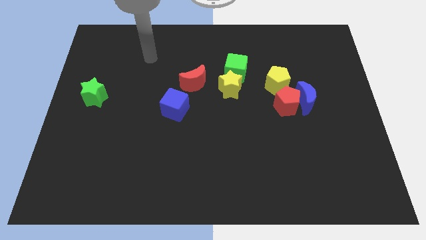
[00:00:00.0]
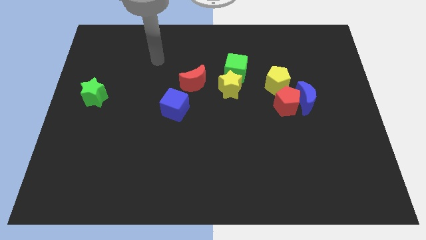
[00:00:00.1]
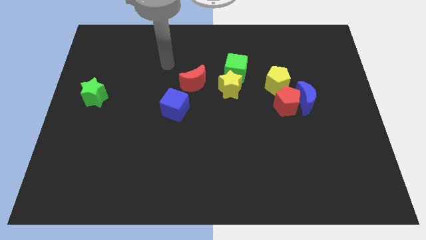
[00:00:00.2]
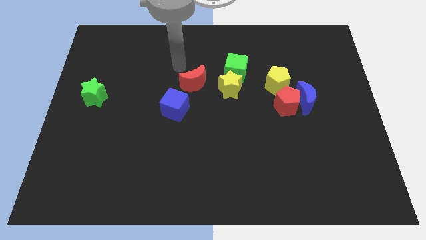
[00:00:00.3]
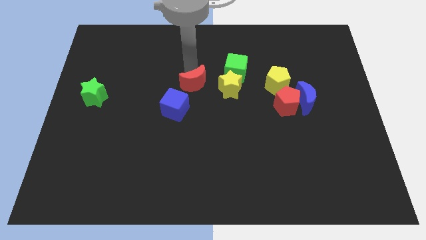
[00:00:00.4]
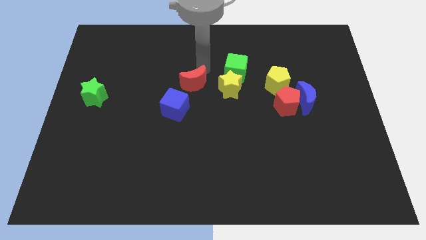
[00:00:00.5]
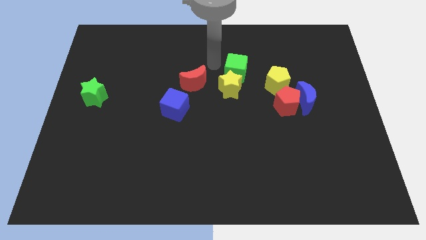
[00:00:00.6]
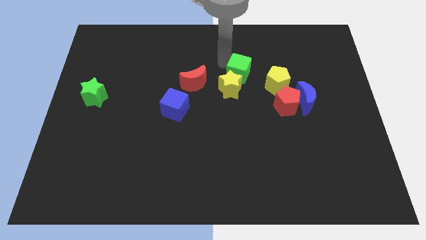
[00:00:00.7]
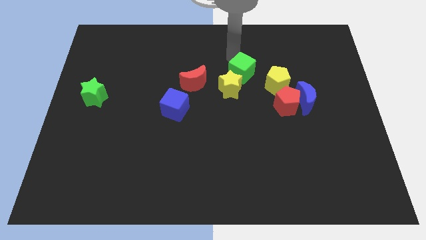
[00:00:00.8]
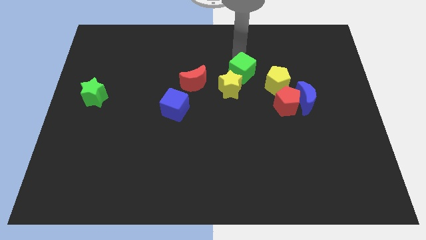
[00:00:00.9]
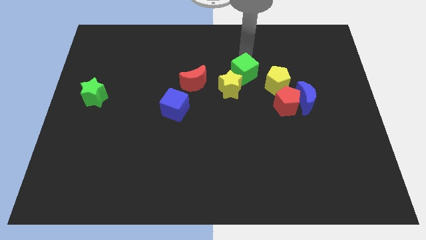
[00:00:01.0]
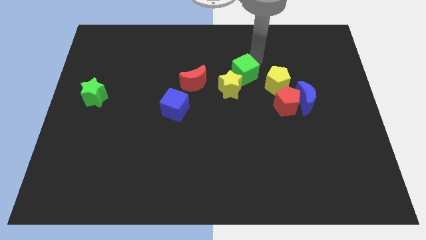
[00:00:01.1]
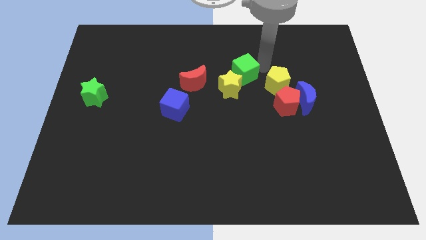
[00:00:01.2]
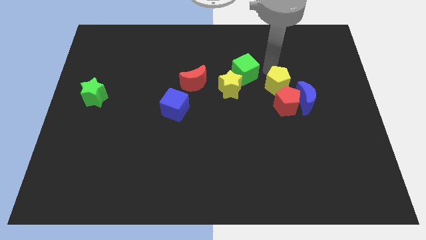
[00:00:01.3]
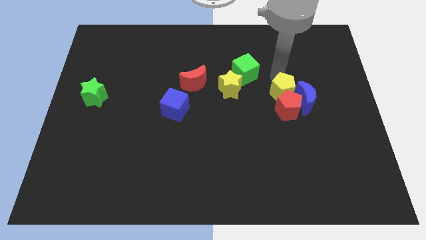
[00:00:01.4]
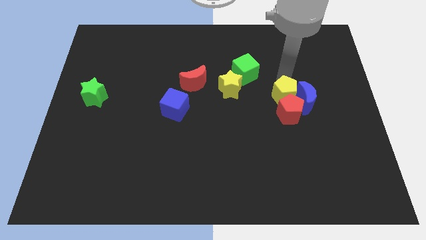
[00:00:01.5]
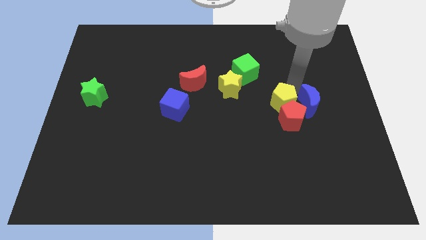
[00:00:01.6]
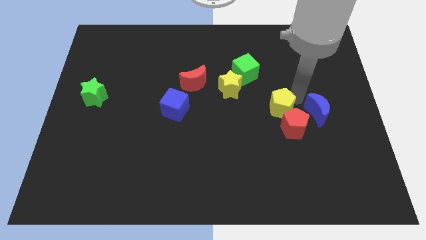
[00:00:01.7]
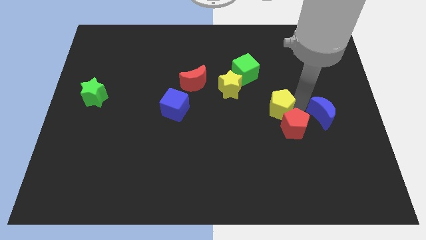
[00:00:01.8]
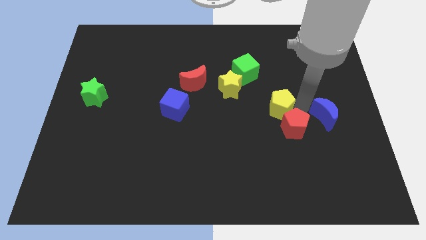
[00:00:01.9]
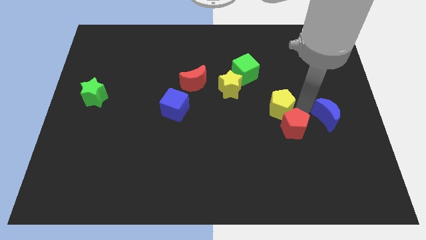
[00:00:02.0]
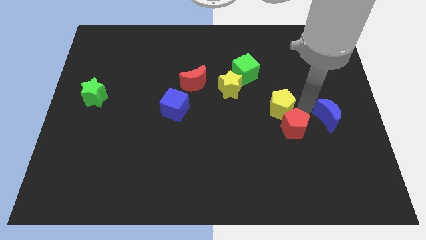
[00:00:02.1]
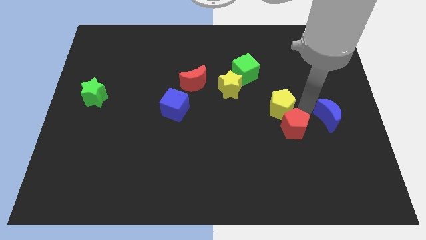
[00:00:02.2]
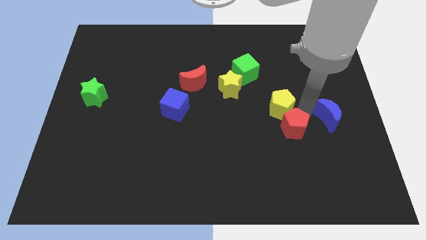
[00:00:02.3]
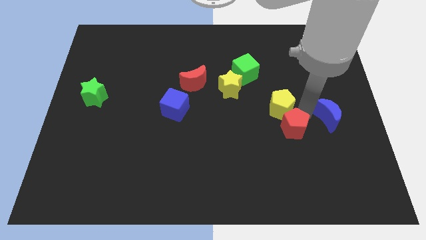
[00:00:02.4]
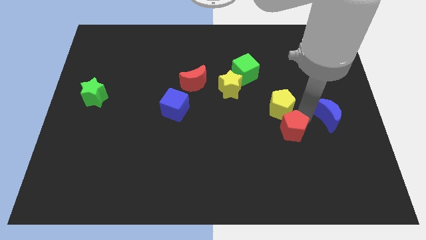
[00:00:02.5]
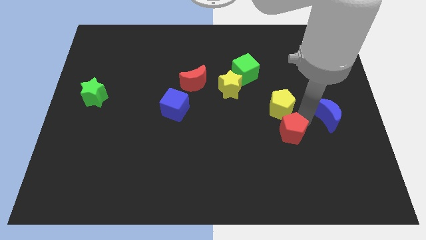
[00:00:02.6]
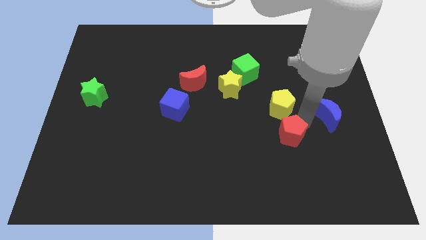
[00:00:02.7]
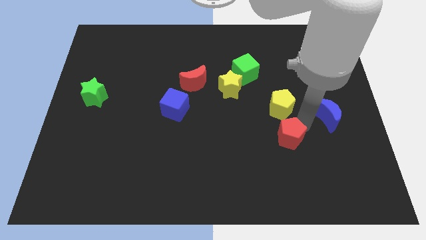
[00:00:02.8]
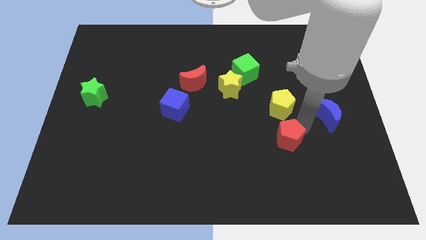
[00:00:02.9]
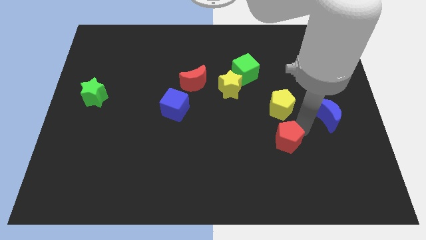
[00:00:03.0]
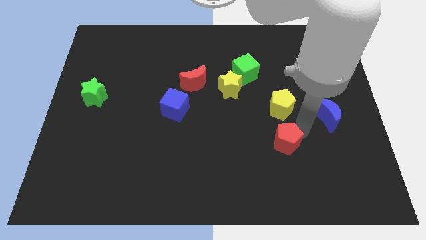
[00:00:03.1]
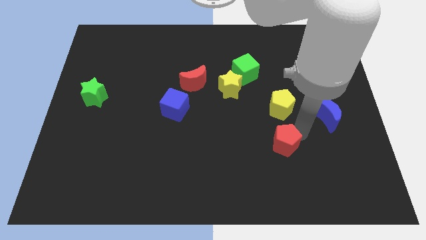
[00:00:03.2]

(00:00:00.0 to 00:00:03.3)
pull the red pentagon apart from the blue moon and yellow pentagon

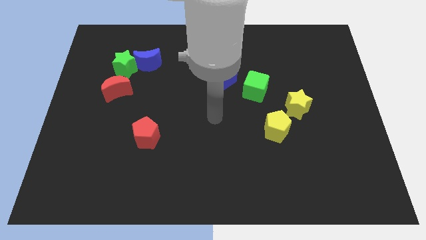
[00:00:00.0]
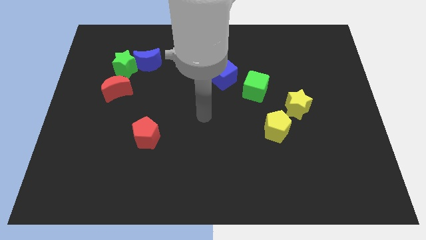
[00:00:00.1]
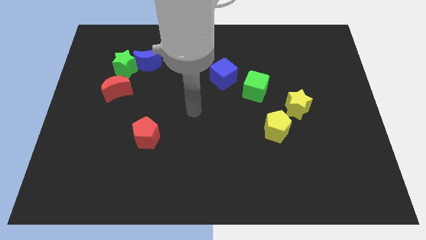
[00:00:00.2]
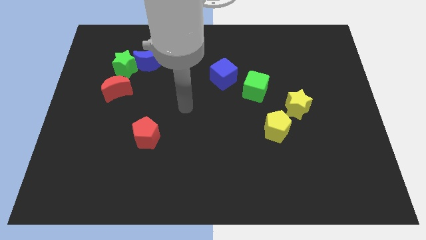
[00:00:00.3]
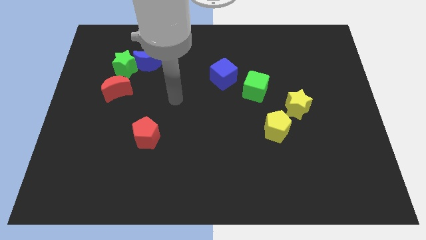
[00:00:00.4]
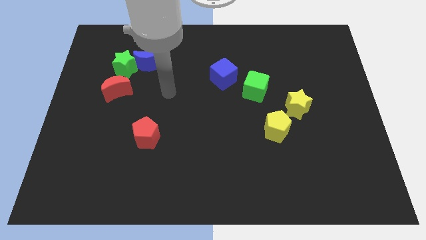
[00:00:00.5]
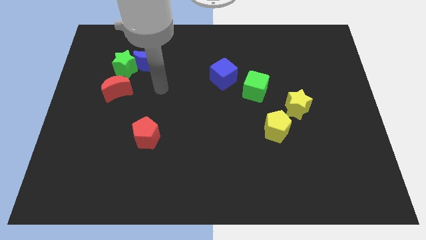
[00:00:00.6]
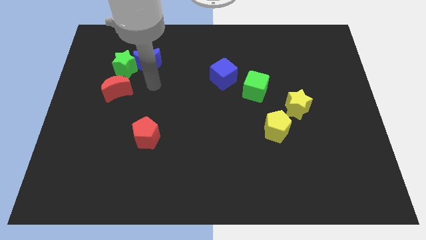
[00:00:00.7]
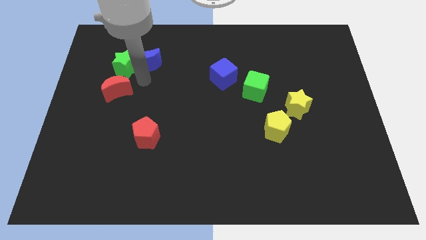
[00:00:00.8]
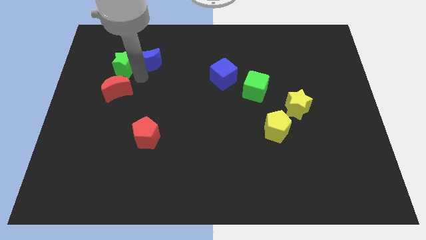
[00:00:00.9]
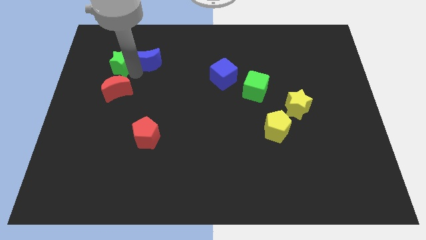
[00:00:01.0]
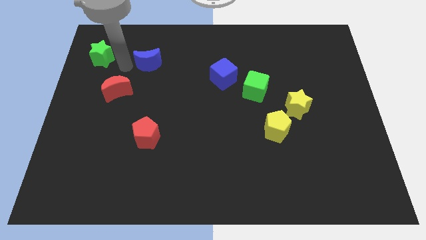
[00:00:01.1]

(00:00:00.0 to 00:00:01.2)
move the blue moon away from the green star

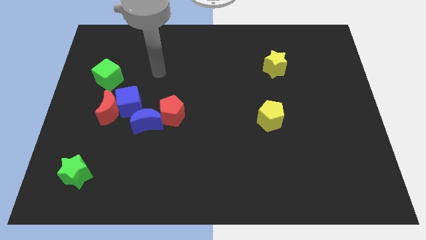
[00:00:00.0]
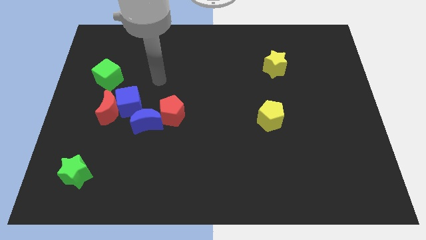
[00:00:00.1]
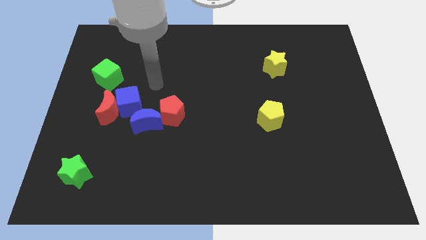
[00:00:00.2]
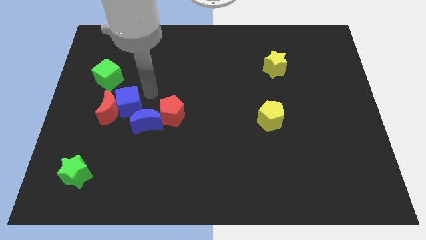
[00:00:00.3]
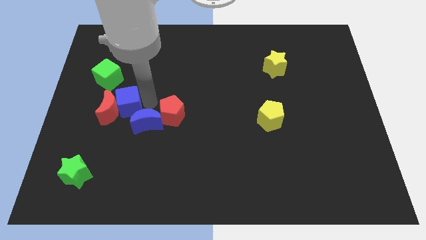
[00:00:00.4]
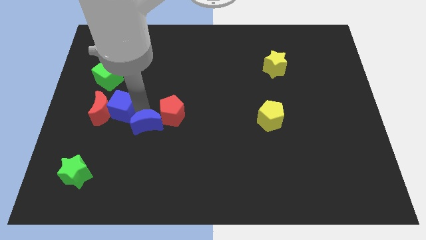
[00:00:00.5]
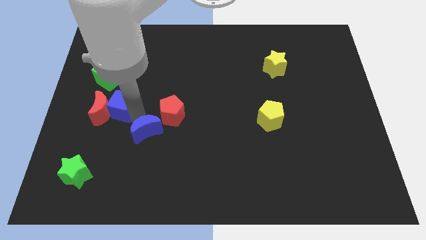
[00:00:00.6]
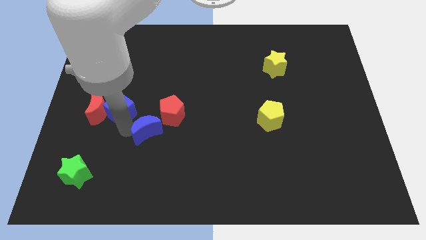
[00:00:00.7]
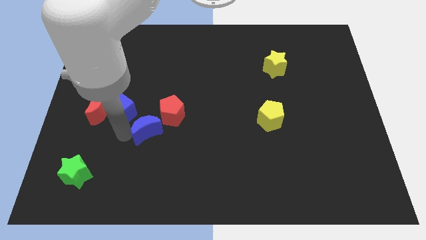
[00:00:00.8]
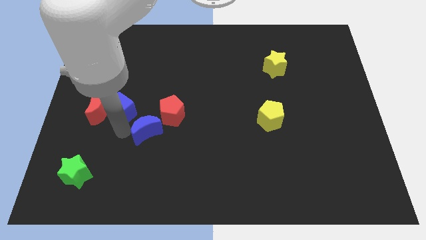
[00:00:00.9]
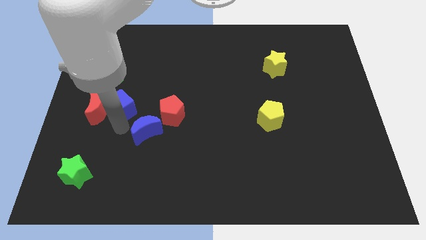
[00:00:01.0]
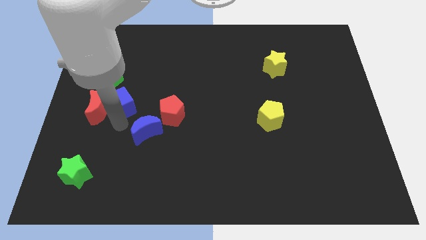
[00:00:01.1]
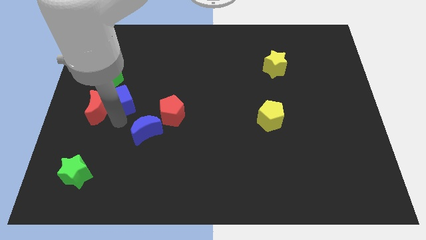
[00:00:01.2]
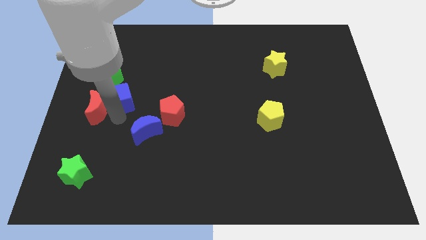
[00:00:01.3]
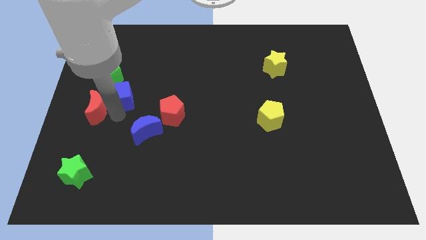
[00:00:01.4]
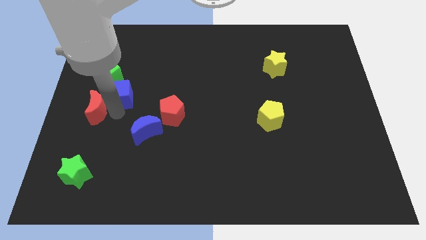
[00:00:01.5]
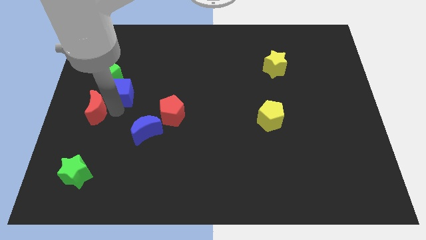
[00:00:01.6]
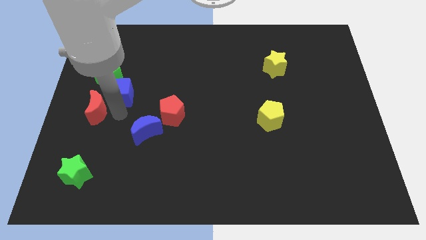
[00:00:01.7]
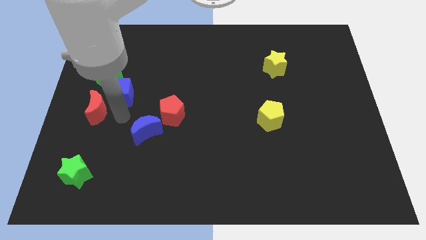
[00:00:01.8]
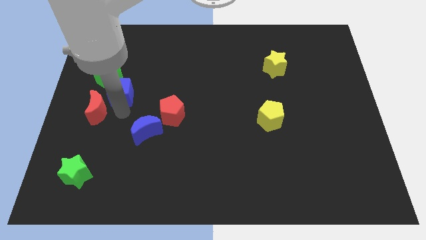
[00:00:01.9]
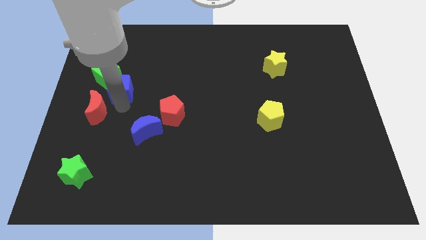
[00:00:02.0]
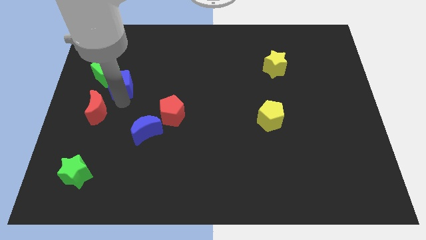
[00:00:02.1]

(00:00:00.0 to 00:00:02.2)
pull the blue cube apart from the red moon and blue moon

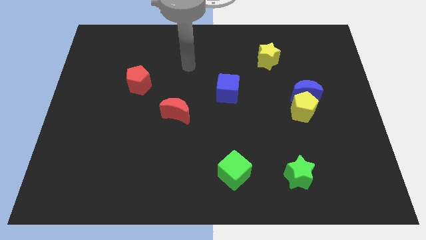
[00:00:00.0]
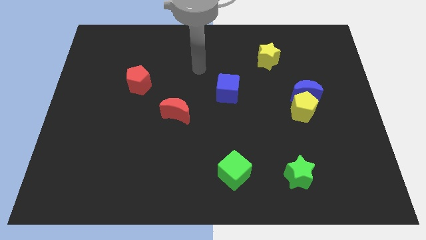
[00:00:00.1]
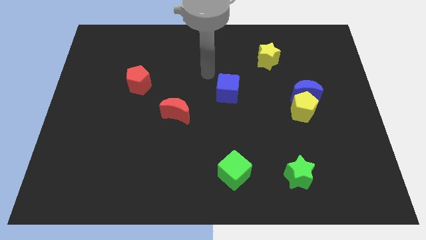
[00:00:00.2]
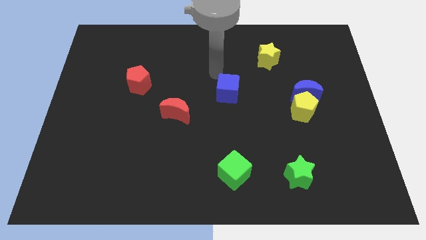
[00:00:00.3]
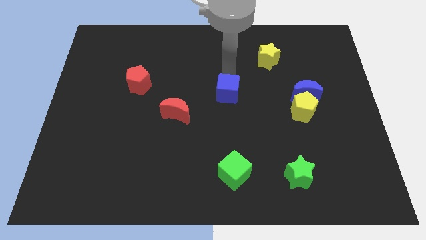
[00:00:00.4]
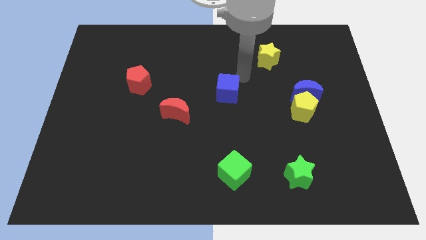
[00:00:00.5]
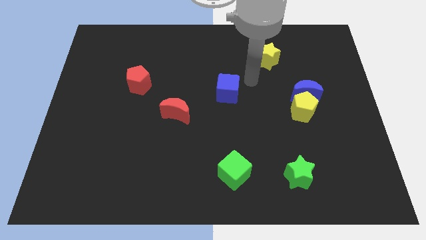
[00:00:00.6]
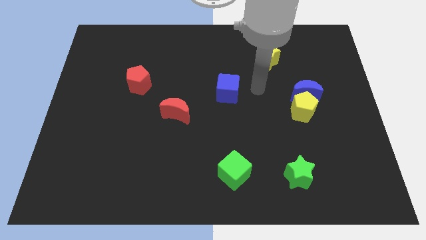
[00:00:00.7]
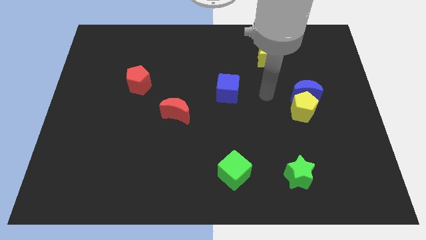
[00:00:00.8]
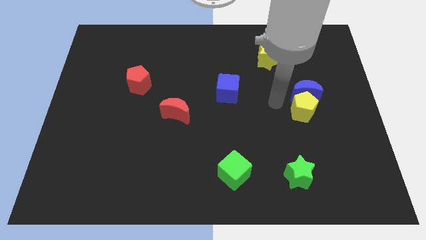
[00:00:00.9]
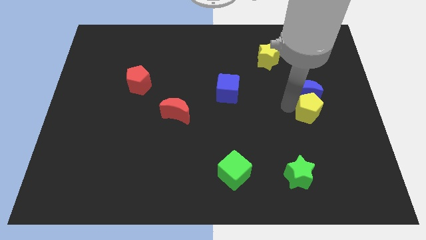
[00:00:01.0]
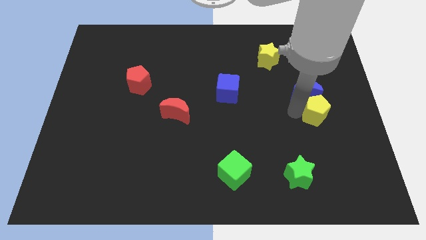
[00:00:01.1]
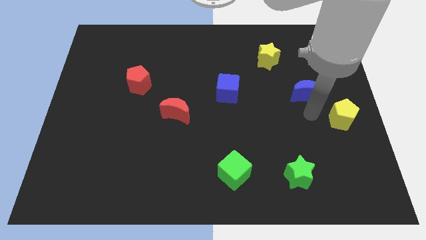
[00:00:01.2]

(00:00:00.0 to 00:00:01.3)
separate the blue moon from the yellow pentagon

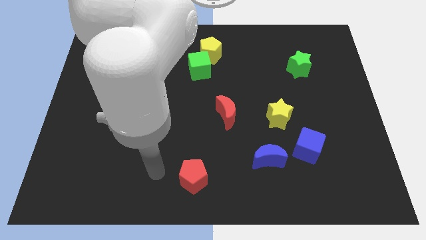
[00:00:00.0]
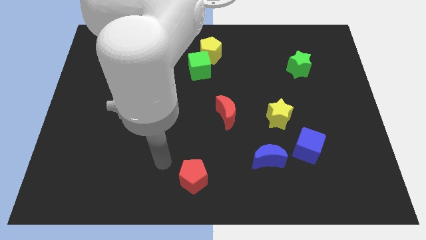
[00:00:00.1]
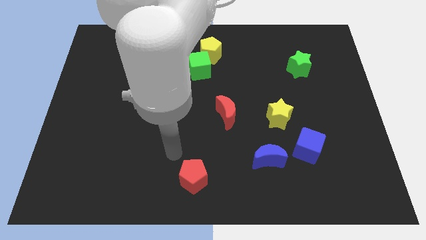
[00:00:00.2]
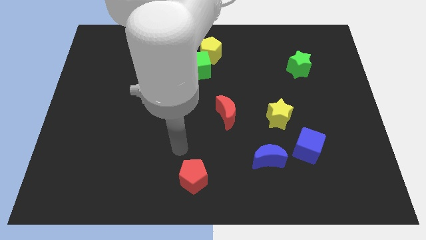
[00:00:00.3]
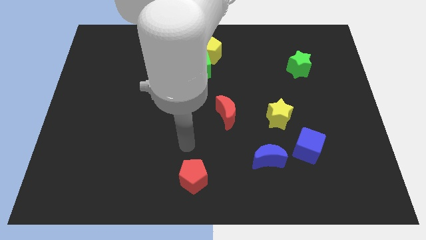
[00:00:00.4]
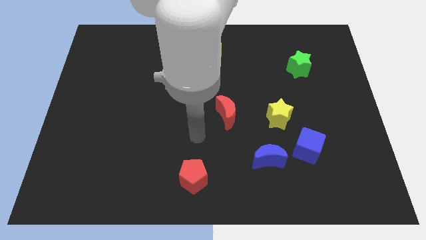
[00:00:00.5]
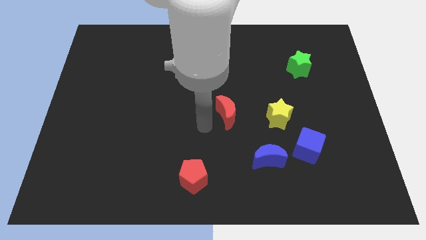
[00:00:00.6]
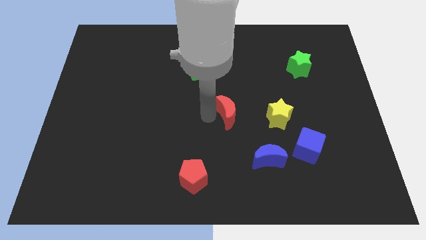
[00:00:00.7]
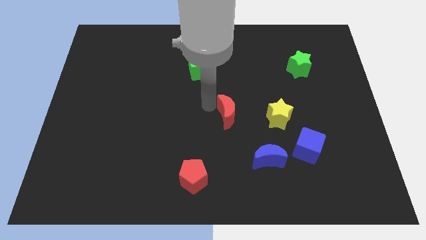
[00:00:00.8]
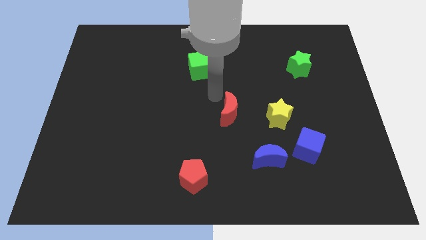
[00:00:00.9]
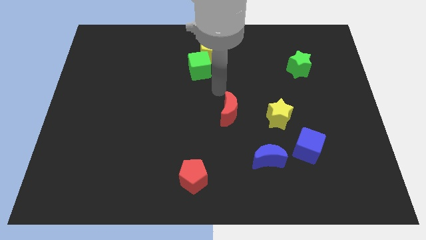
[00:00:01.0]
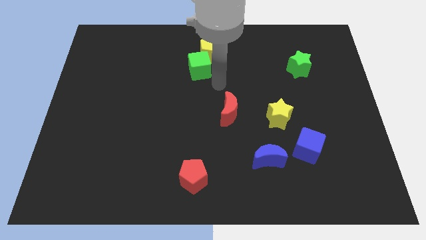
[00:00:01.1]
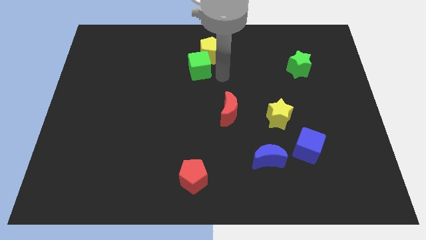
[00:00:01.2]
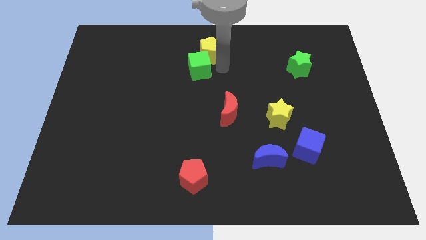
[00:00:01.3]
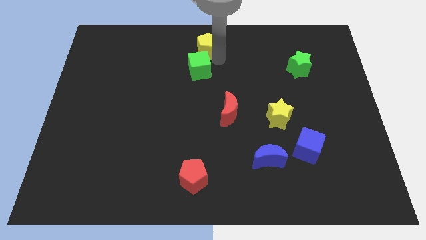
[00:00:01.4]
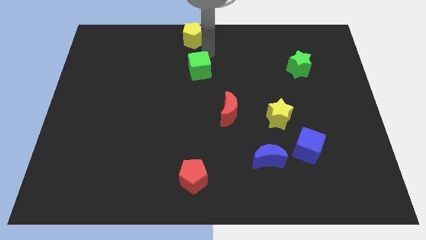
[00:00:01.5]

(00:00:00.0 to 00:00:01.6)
move the green cube away from the yellow pentagon
